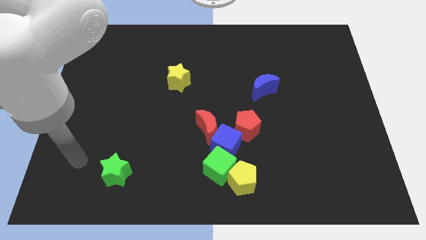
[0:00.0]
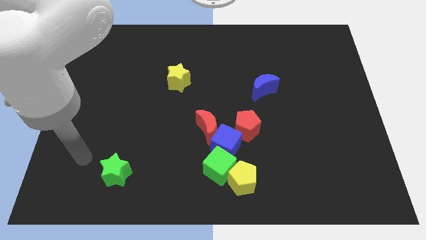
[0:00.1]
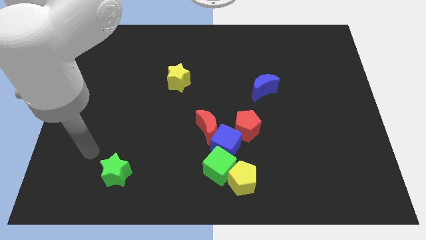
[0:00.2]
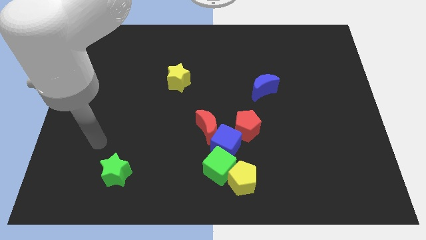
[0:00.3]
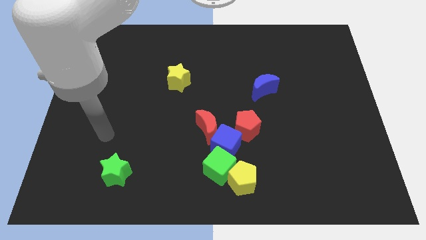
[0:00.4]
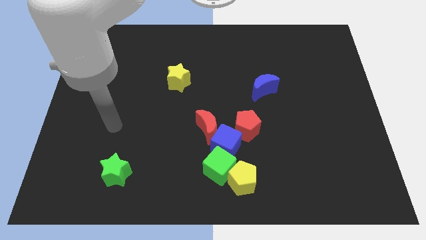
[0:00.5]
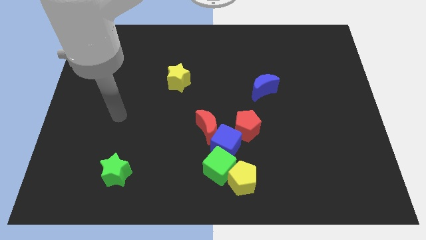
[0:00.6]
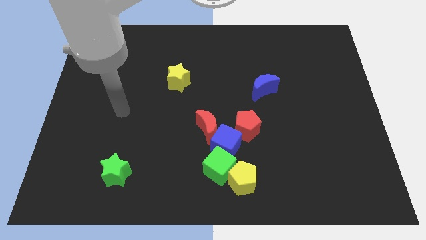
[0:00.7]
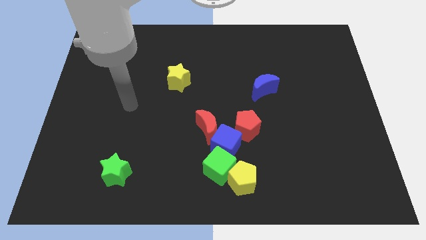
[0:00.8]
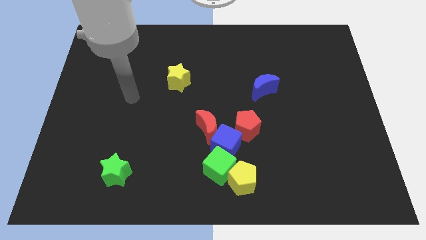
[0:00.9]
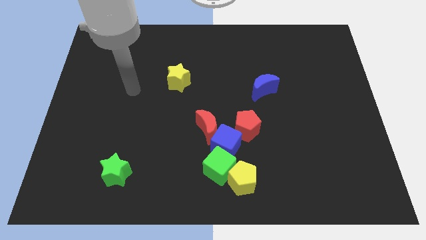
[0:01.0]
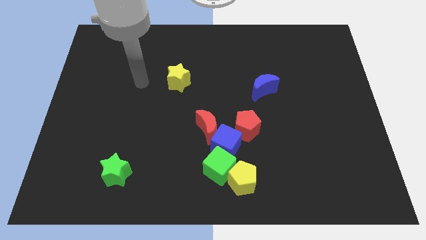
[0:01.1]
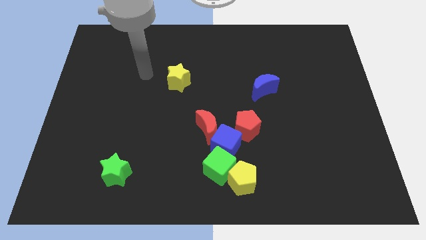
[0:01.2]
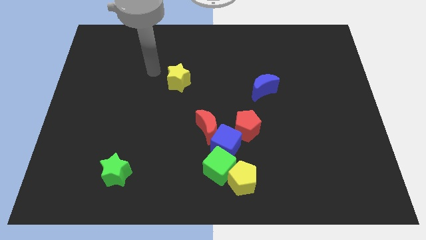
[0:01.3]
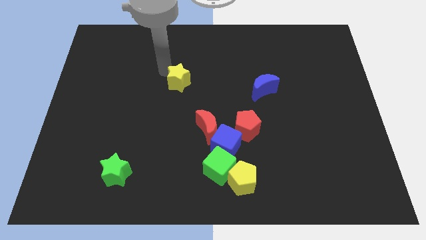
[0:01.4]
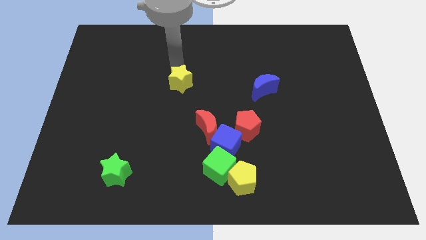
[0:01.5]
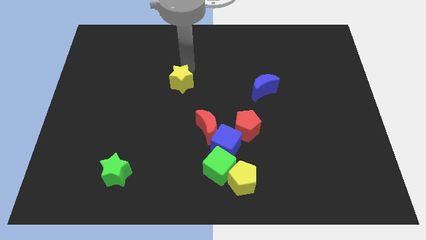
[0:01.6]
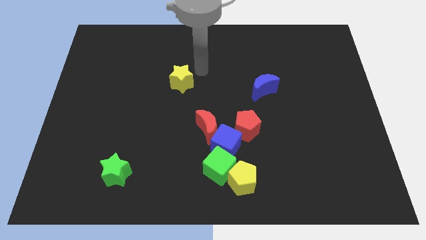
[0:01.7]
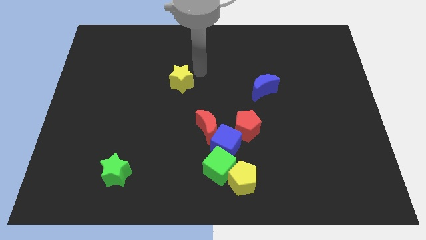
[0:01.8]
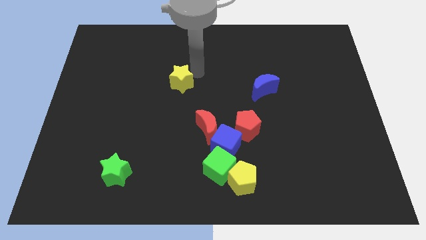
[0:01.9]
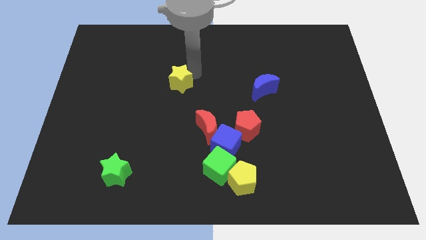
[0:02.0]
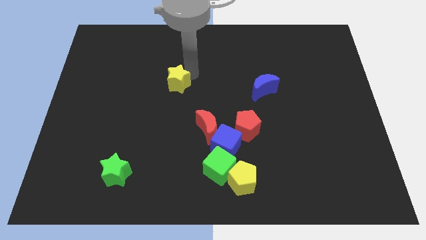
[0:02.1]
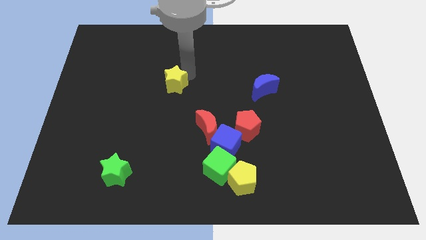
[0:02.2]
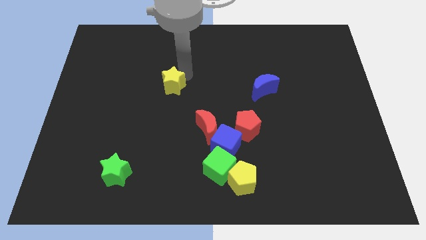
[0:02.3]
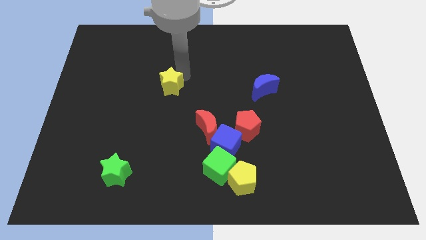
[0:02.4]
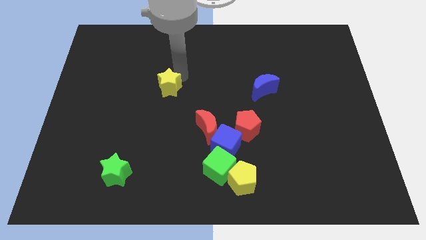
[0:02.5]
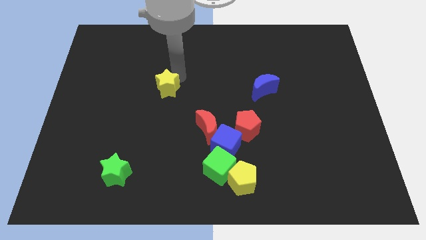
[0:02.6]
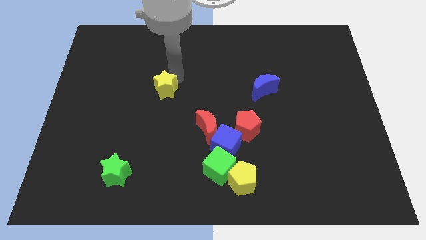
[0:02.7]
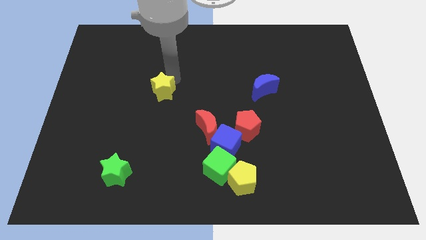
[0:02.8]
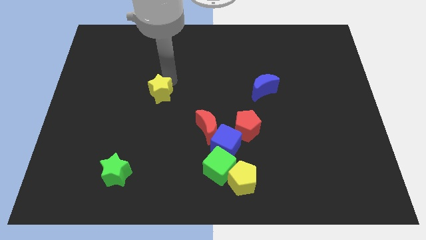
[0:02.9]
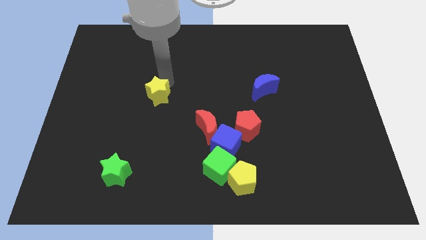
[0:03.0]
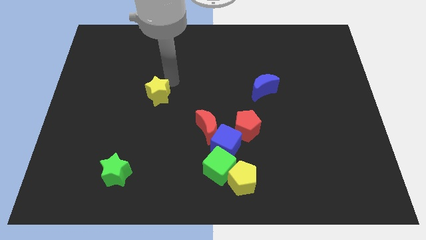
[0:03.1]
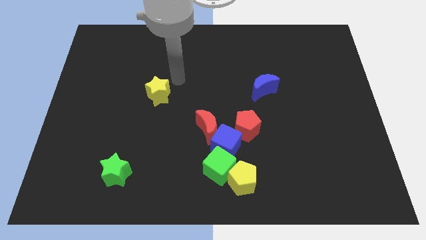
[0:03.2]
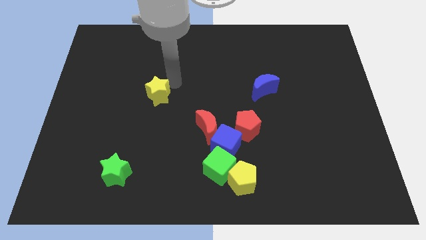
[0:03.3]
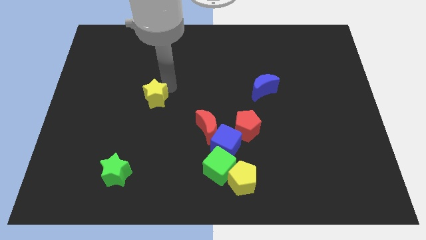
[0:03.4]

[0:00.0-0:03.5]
slide the yellow star diagonally down and to the left slightly

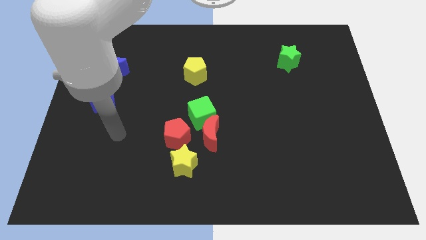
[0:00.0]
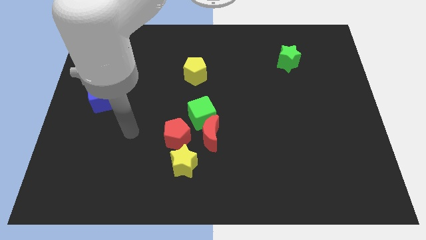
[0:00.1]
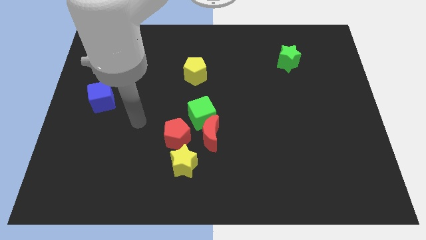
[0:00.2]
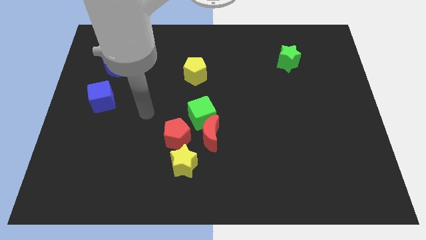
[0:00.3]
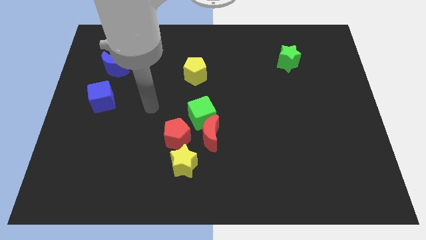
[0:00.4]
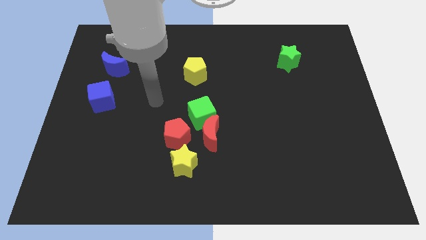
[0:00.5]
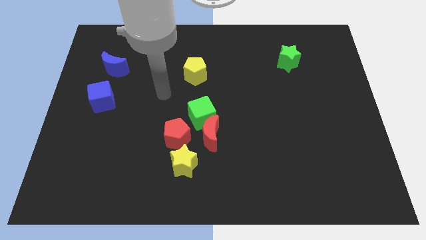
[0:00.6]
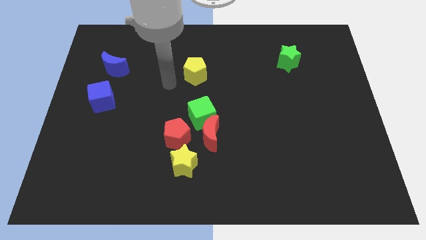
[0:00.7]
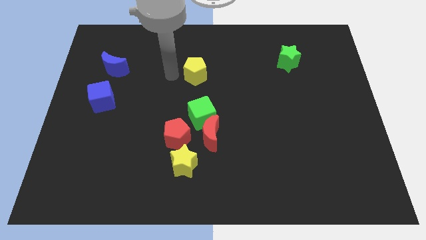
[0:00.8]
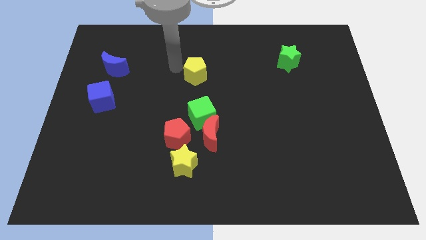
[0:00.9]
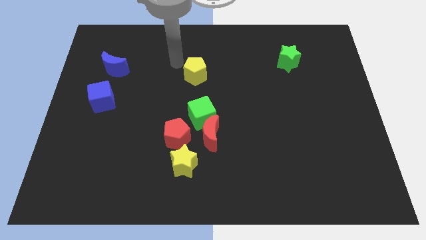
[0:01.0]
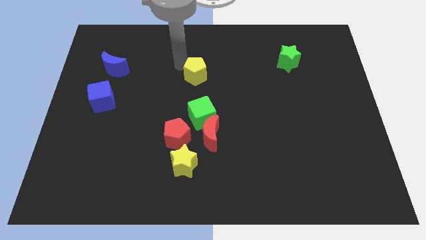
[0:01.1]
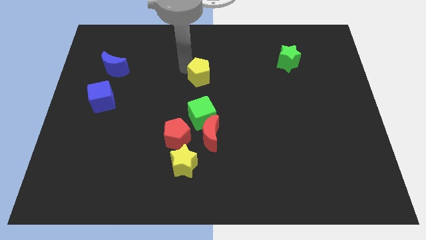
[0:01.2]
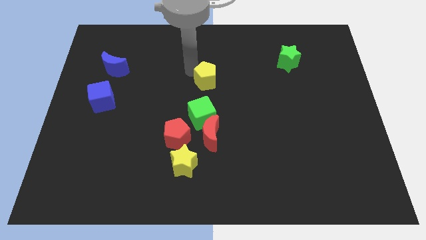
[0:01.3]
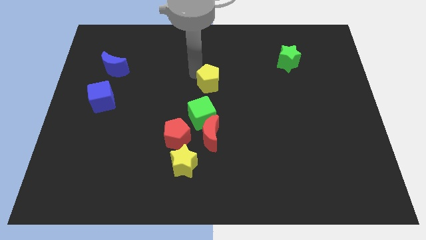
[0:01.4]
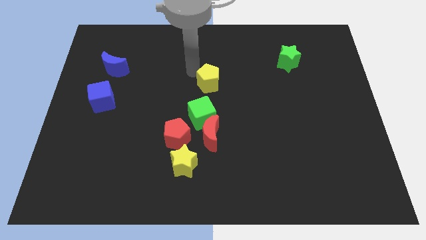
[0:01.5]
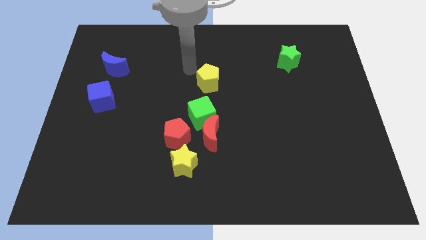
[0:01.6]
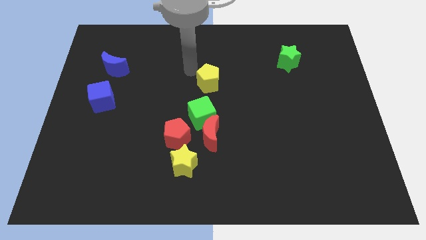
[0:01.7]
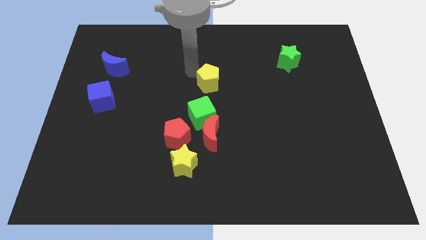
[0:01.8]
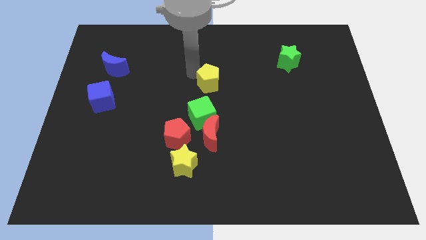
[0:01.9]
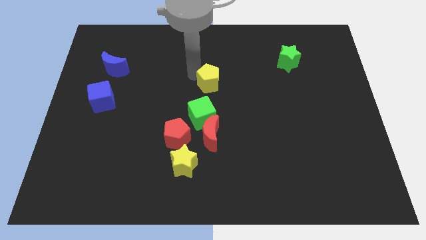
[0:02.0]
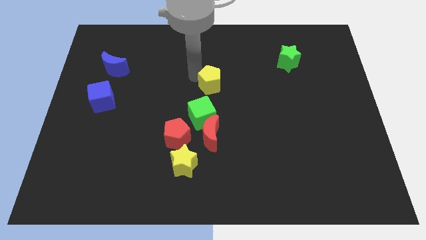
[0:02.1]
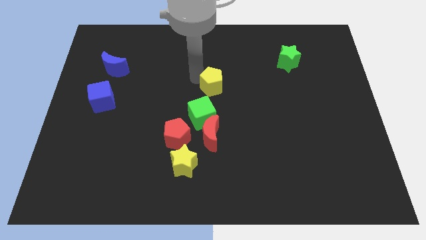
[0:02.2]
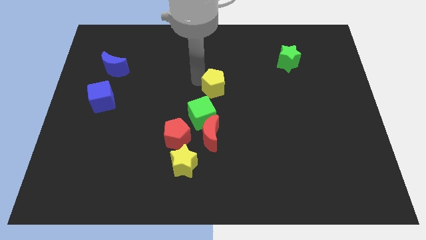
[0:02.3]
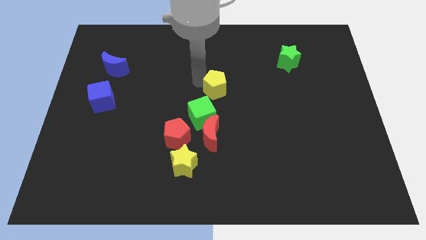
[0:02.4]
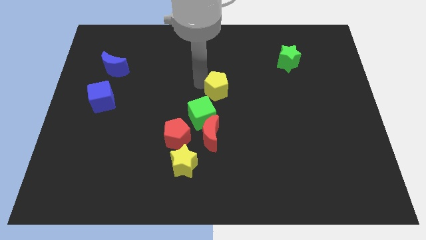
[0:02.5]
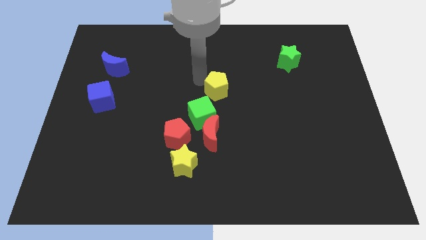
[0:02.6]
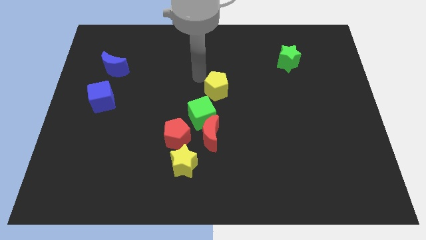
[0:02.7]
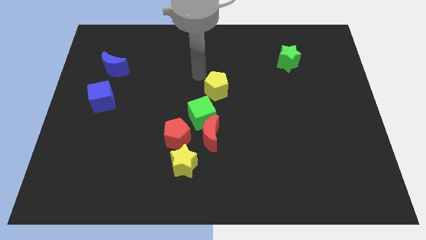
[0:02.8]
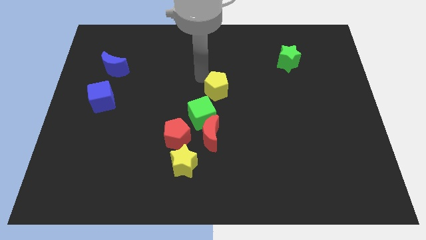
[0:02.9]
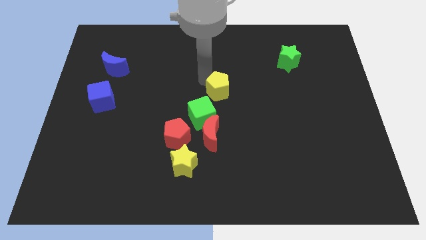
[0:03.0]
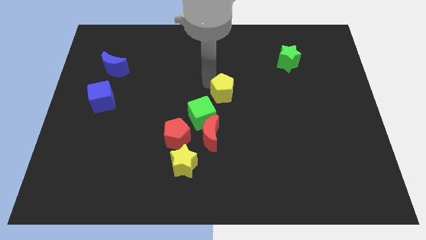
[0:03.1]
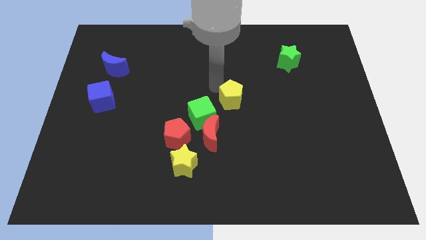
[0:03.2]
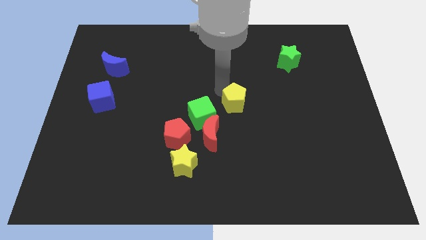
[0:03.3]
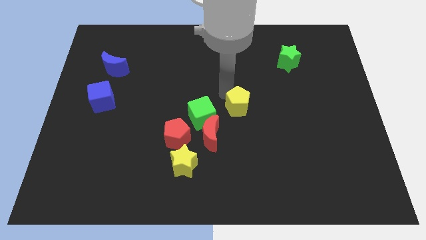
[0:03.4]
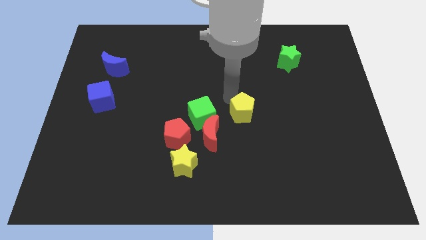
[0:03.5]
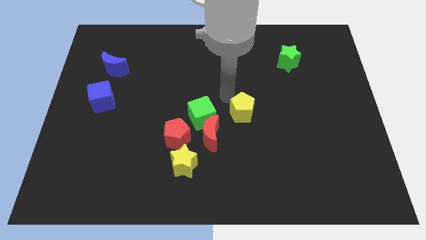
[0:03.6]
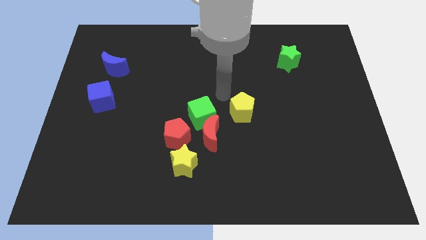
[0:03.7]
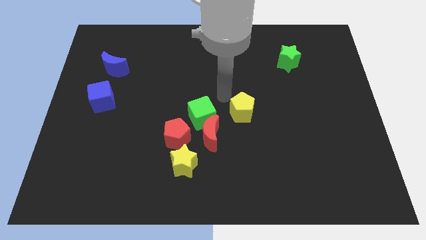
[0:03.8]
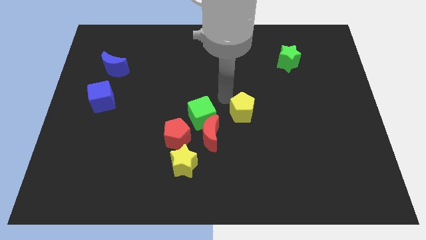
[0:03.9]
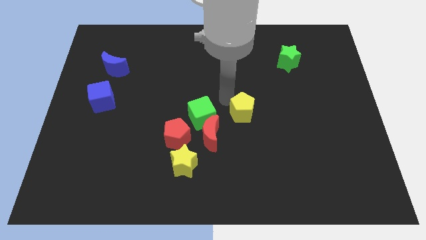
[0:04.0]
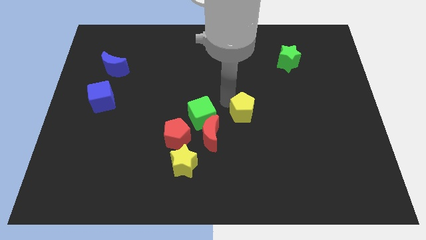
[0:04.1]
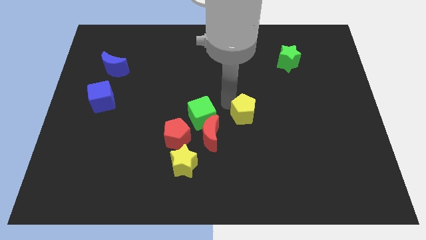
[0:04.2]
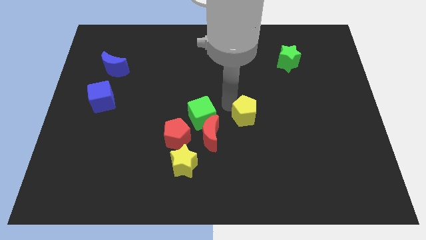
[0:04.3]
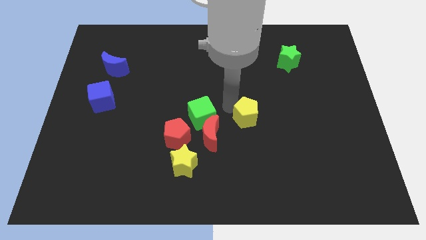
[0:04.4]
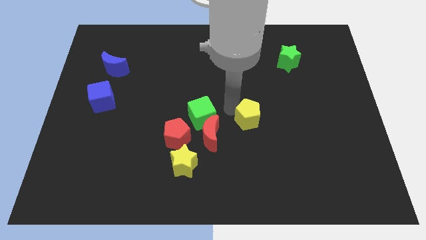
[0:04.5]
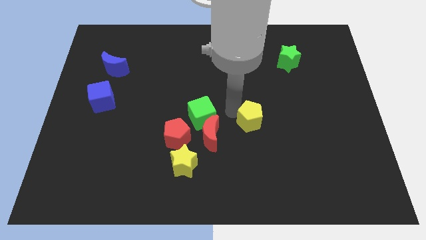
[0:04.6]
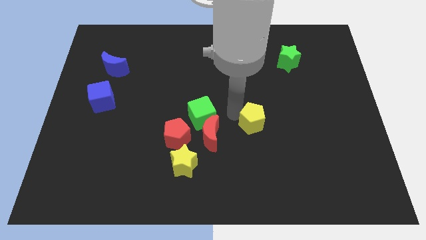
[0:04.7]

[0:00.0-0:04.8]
slide the yellow pentagon downwards and then right
